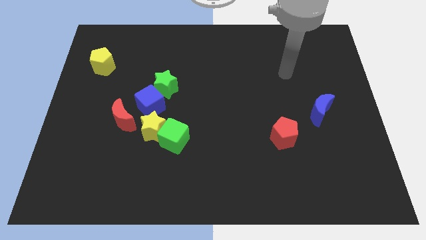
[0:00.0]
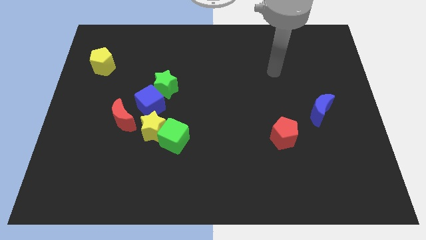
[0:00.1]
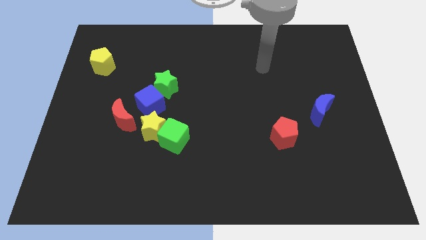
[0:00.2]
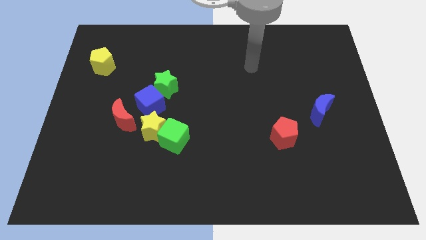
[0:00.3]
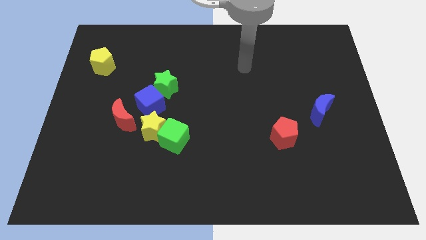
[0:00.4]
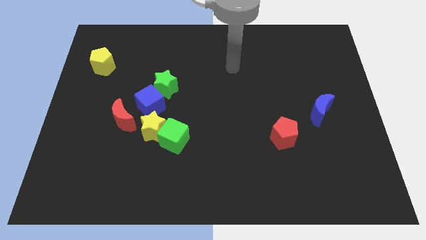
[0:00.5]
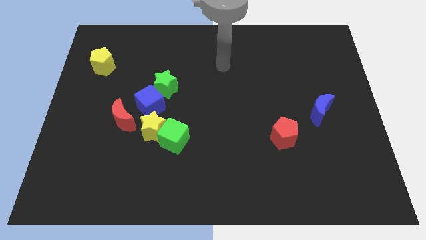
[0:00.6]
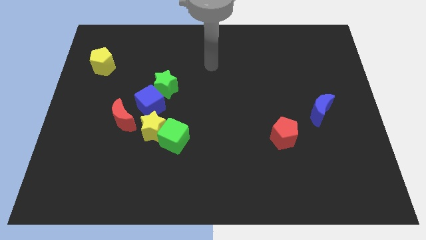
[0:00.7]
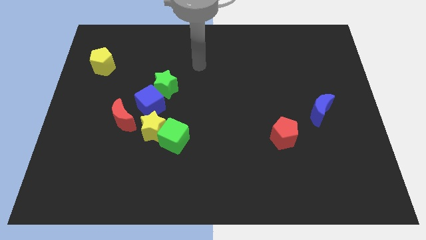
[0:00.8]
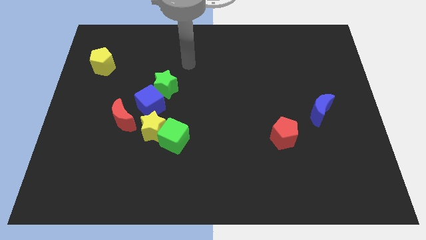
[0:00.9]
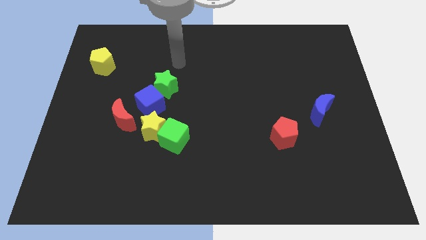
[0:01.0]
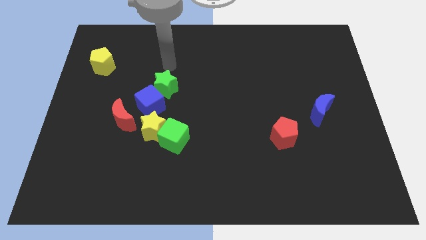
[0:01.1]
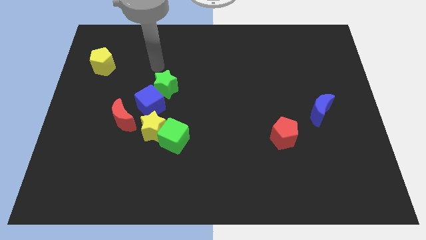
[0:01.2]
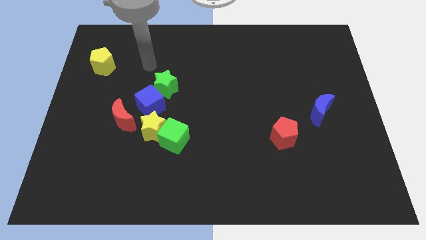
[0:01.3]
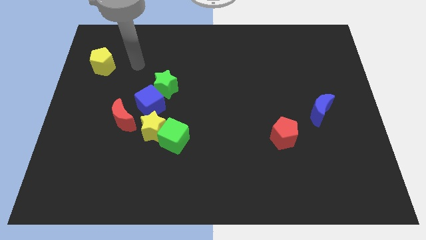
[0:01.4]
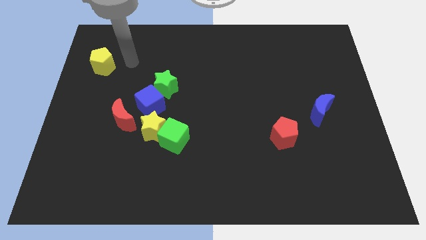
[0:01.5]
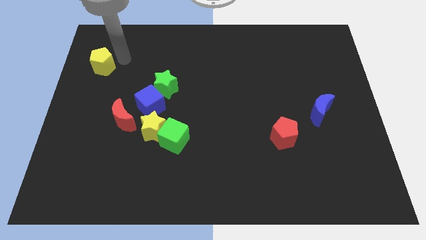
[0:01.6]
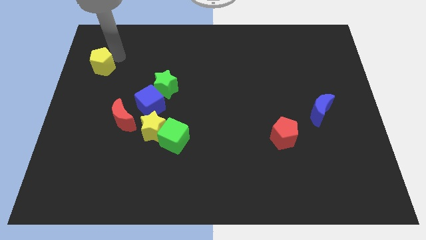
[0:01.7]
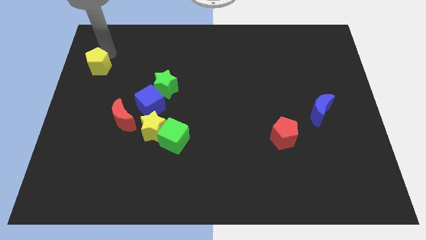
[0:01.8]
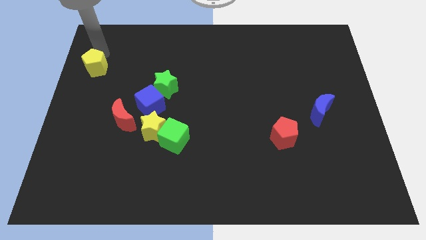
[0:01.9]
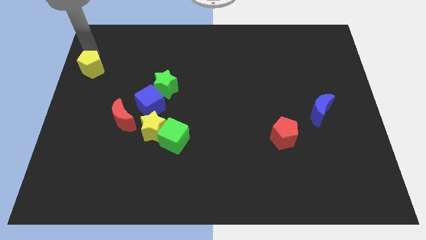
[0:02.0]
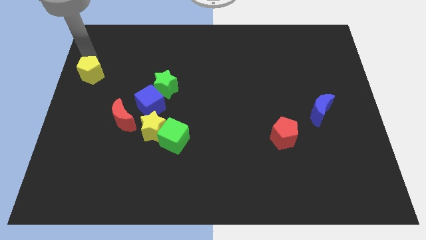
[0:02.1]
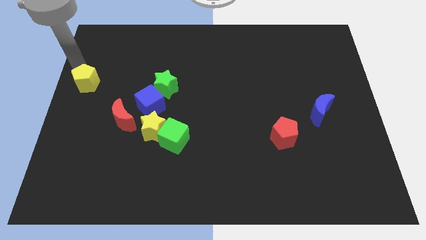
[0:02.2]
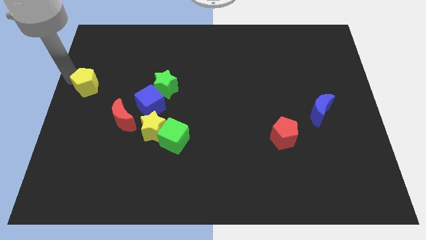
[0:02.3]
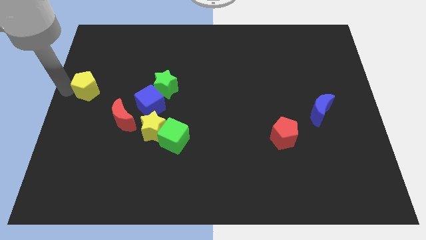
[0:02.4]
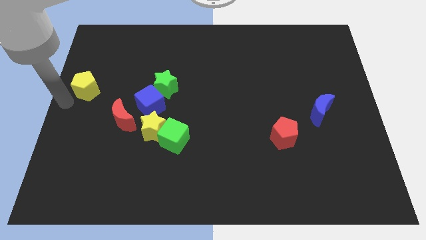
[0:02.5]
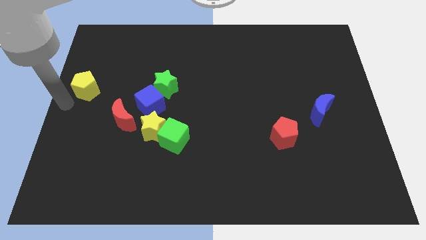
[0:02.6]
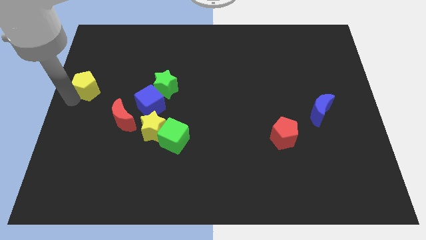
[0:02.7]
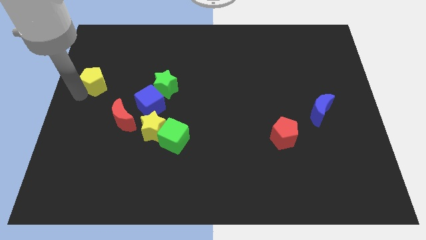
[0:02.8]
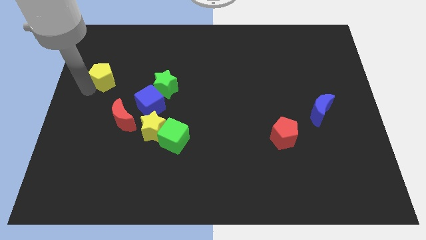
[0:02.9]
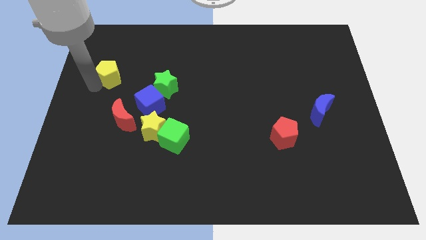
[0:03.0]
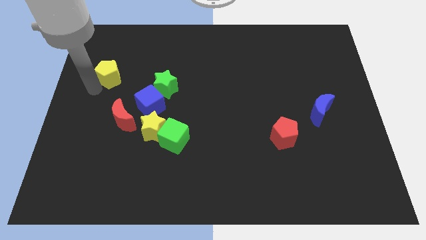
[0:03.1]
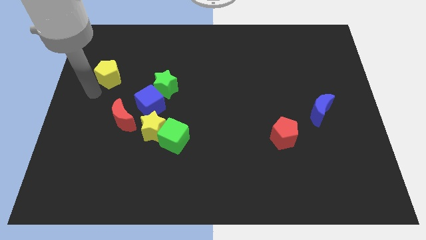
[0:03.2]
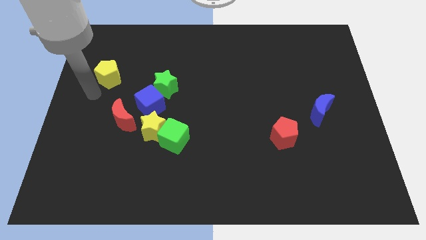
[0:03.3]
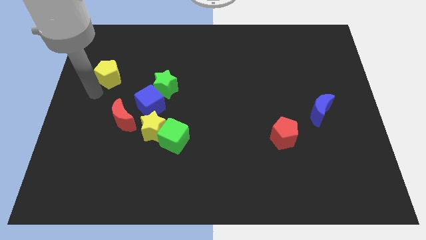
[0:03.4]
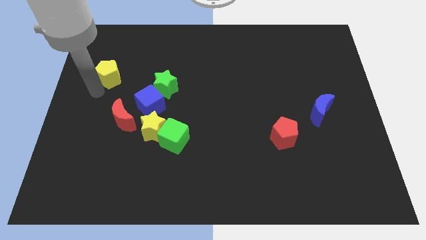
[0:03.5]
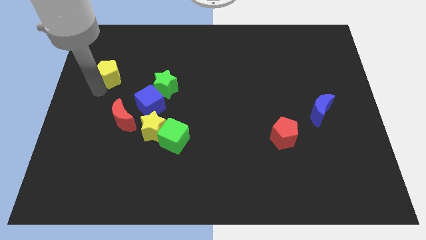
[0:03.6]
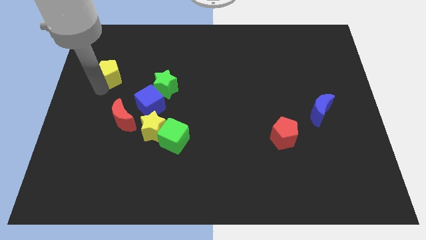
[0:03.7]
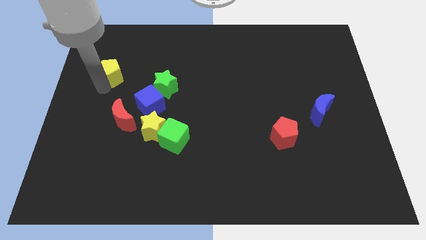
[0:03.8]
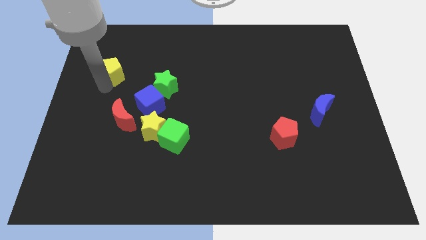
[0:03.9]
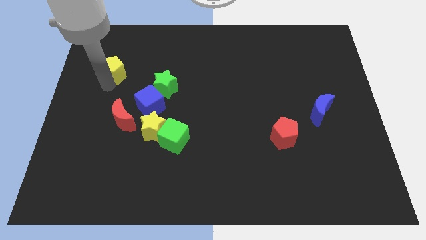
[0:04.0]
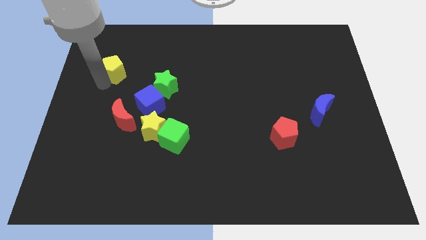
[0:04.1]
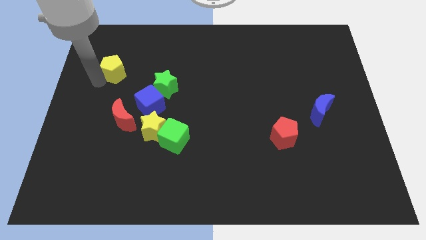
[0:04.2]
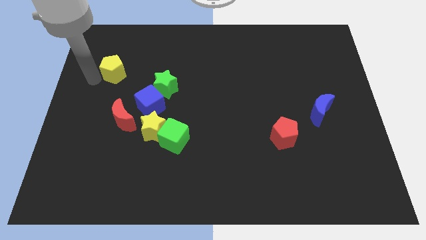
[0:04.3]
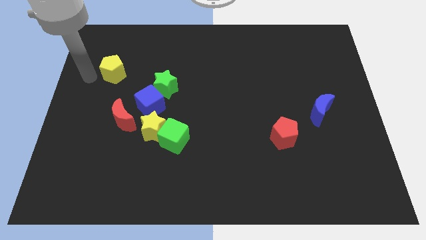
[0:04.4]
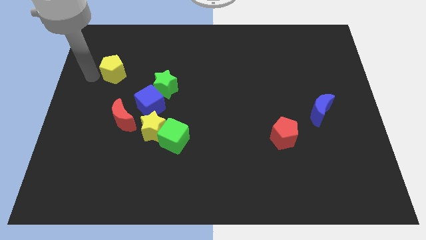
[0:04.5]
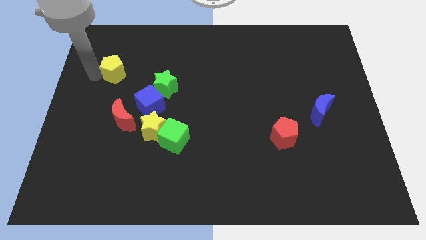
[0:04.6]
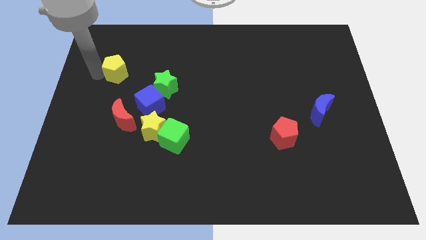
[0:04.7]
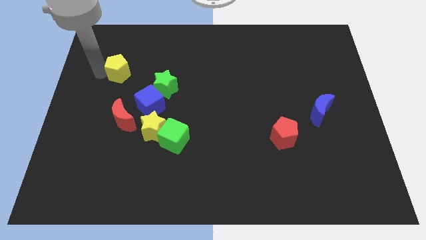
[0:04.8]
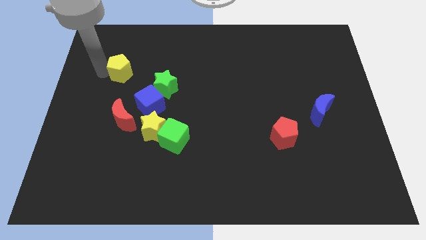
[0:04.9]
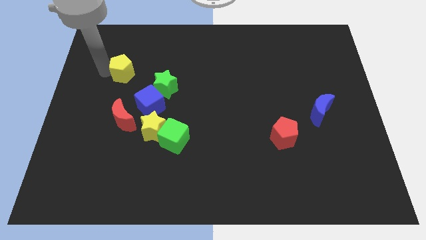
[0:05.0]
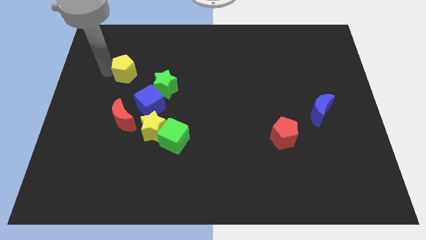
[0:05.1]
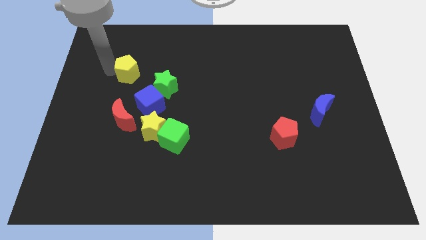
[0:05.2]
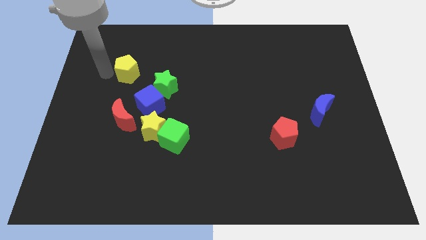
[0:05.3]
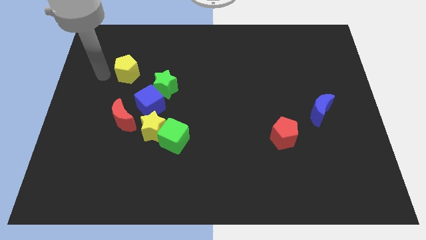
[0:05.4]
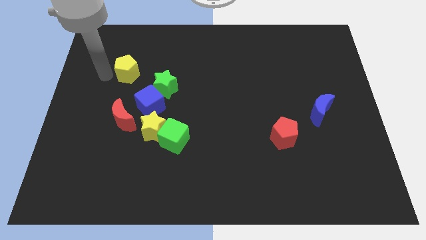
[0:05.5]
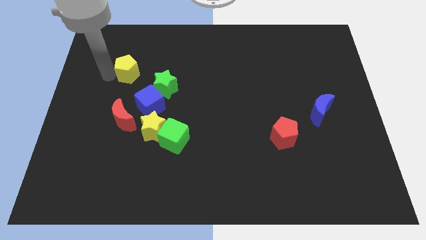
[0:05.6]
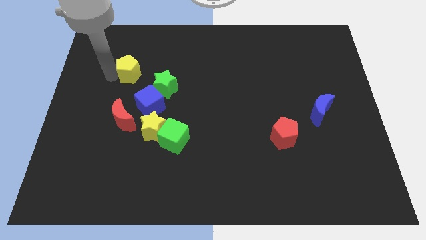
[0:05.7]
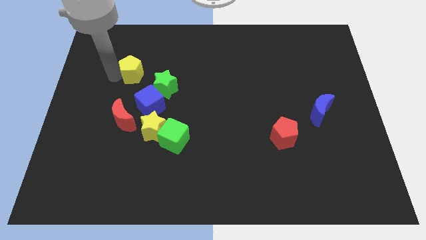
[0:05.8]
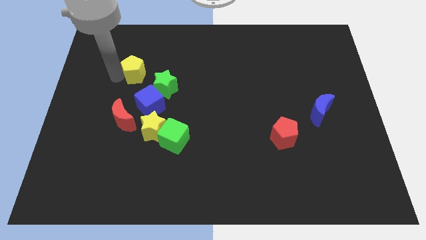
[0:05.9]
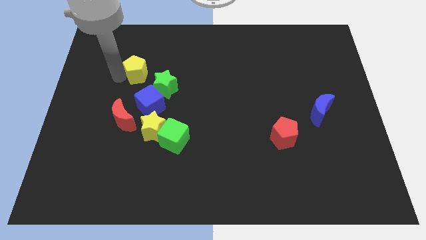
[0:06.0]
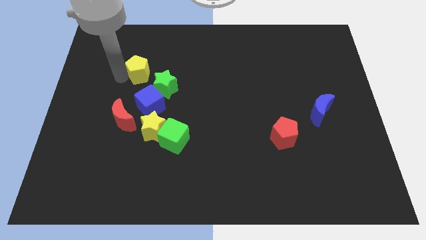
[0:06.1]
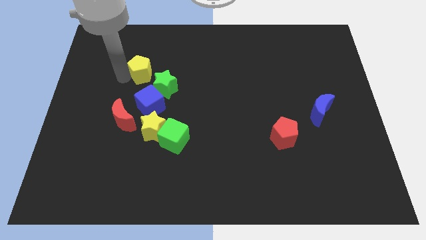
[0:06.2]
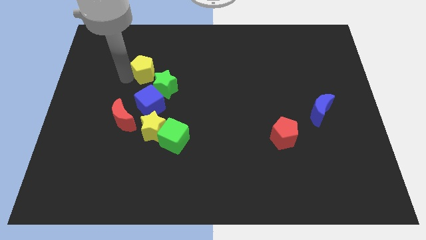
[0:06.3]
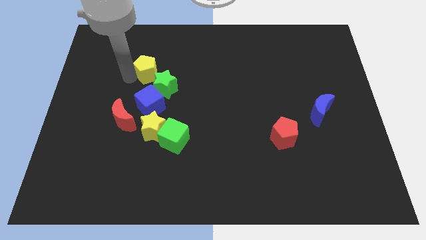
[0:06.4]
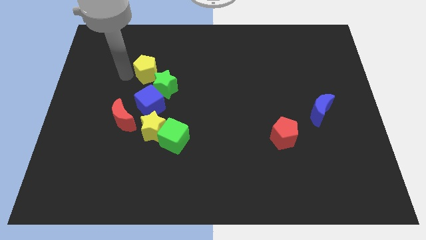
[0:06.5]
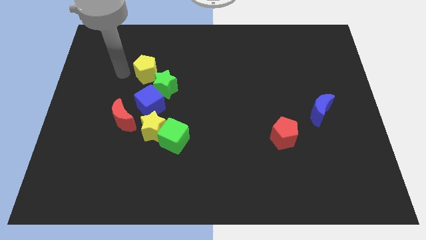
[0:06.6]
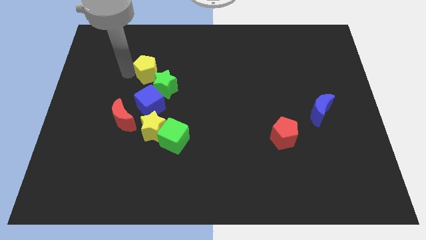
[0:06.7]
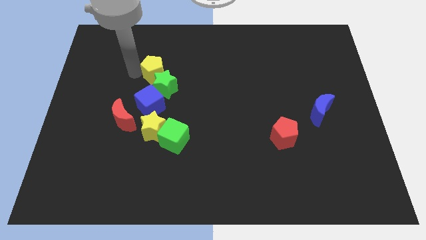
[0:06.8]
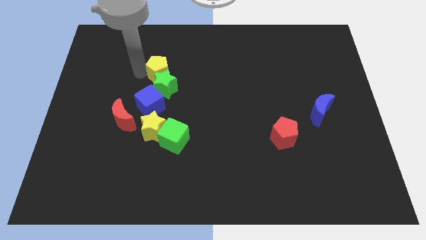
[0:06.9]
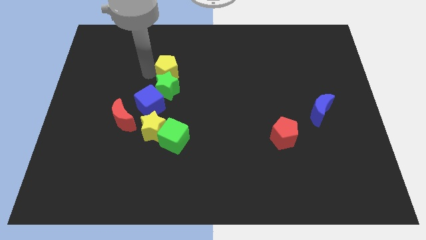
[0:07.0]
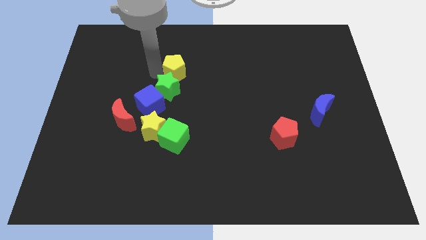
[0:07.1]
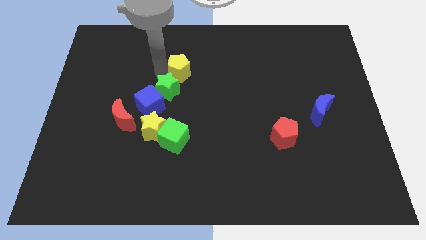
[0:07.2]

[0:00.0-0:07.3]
slide the yellow pentagon to the right

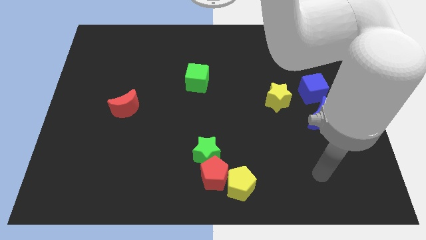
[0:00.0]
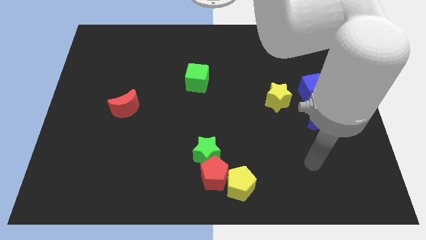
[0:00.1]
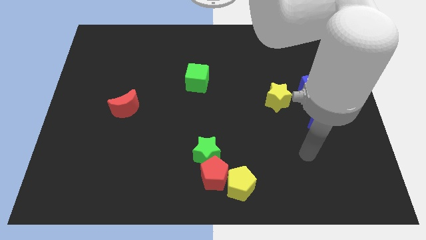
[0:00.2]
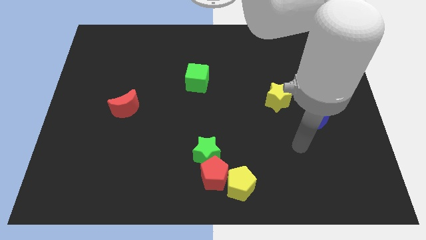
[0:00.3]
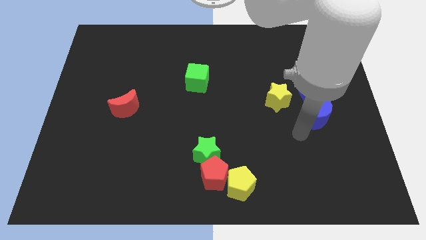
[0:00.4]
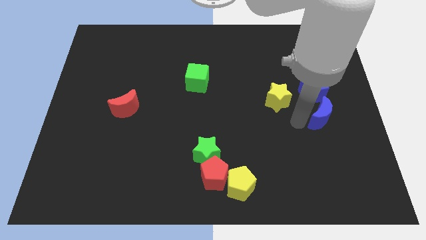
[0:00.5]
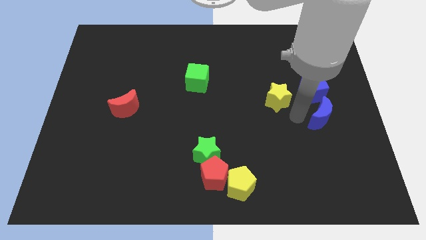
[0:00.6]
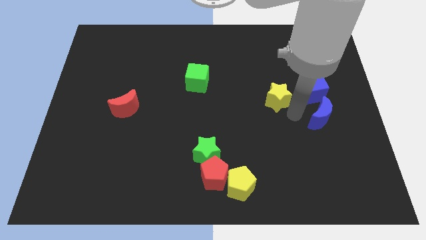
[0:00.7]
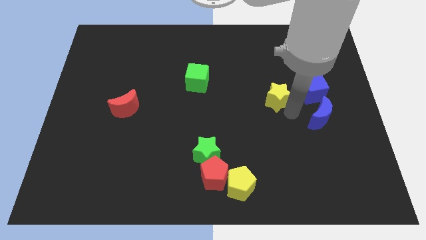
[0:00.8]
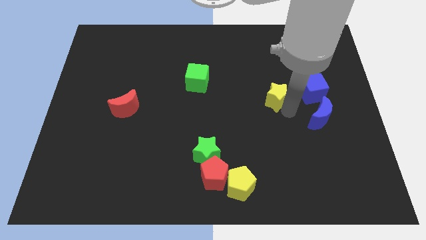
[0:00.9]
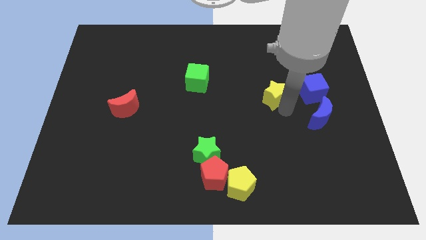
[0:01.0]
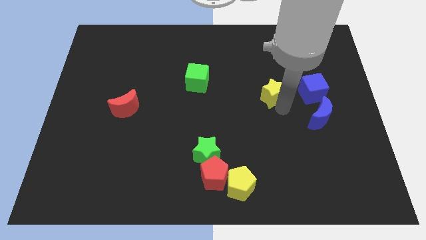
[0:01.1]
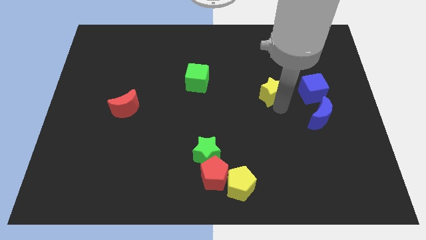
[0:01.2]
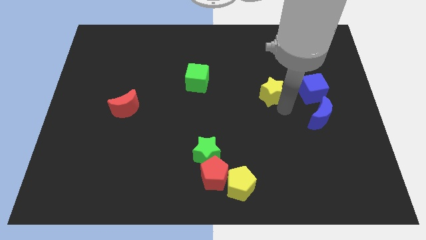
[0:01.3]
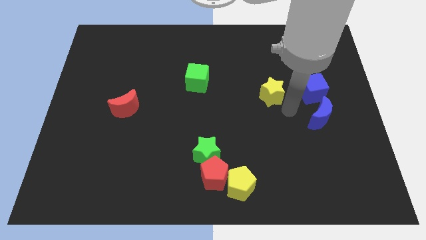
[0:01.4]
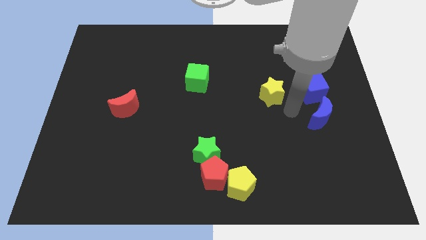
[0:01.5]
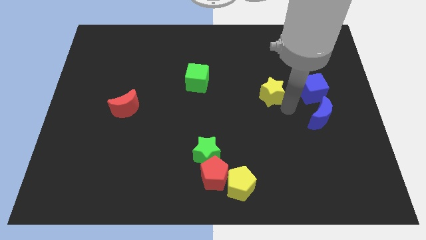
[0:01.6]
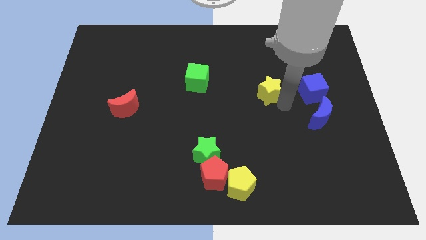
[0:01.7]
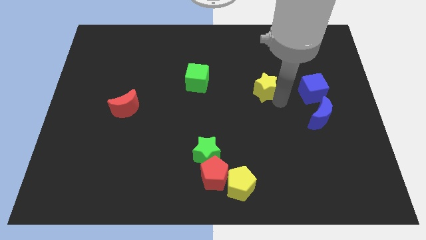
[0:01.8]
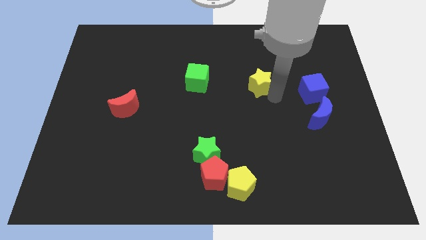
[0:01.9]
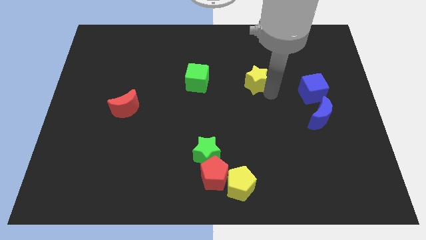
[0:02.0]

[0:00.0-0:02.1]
move the yellow star a bit up and then left
